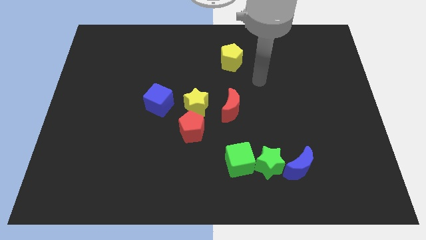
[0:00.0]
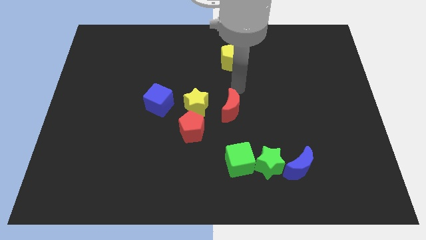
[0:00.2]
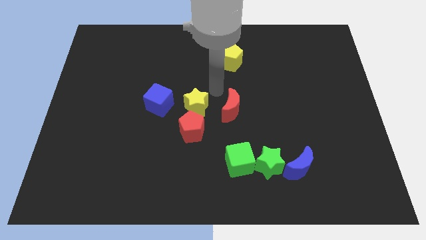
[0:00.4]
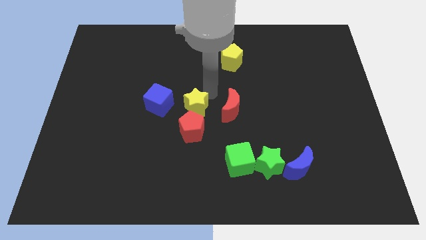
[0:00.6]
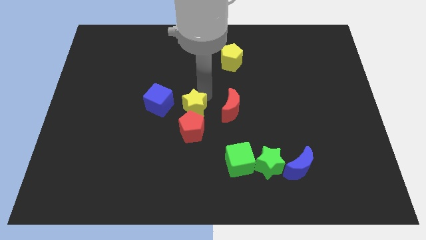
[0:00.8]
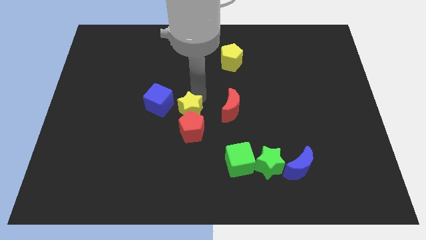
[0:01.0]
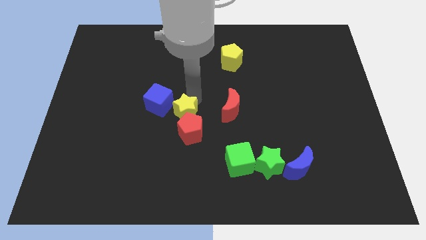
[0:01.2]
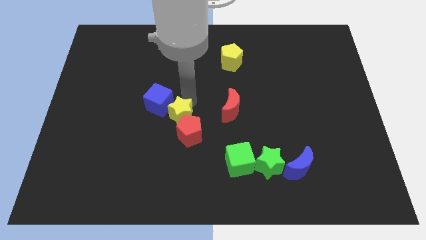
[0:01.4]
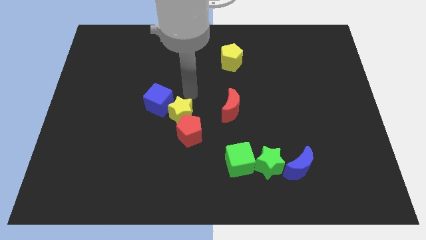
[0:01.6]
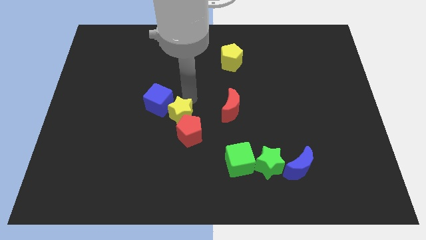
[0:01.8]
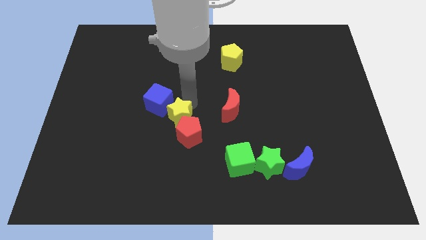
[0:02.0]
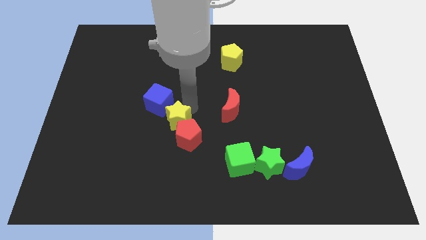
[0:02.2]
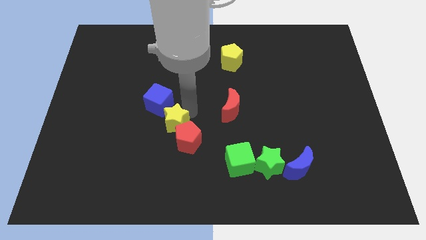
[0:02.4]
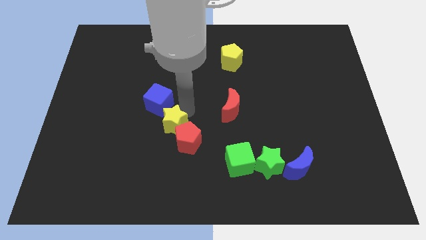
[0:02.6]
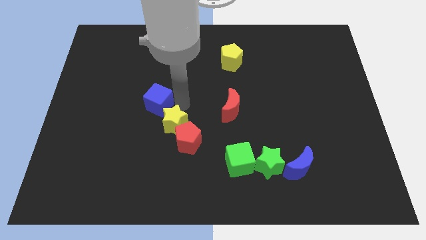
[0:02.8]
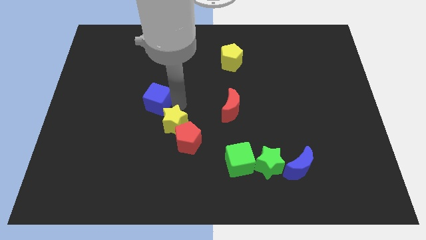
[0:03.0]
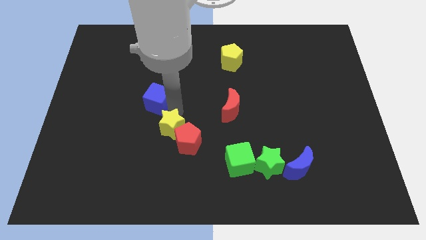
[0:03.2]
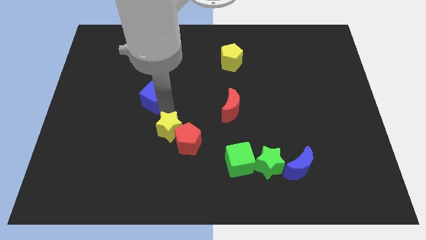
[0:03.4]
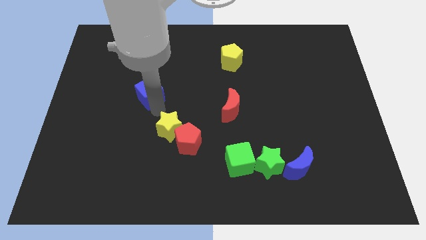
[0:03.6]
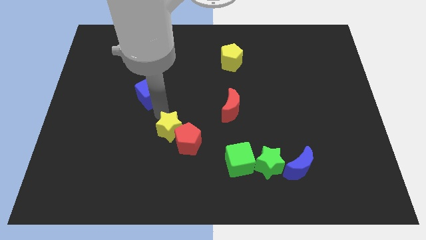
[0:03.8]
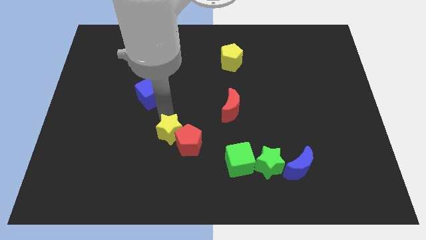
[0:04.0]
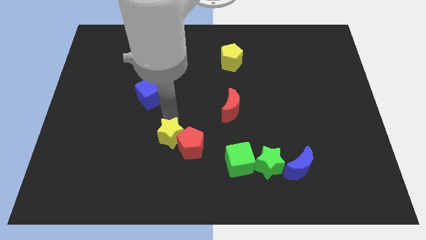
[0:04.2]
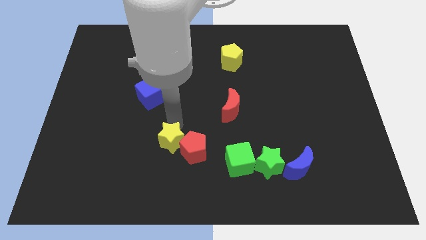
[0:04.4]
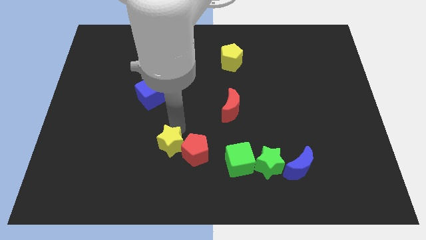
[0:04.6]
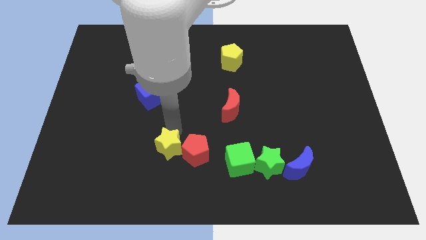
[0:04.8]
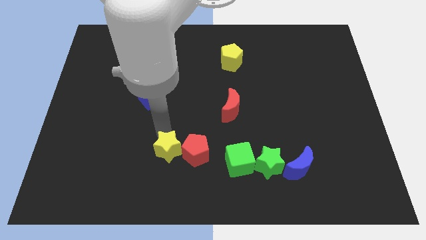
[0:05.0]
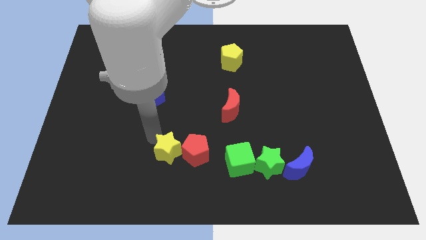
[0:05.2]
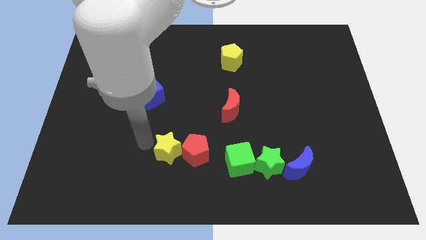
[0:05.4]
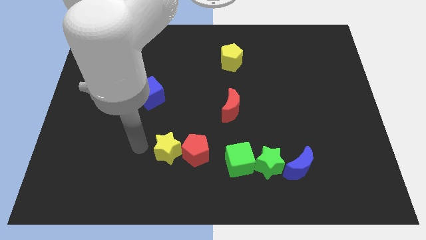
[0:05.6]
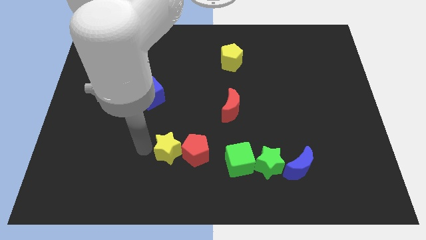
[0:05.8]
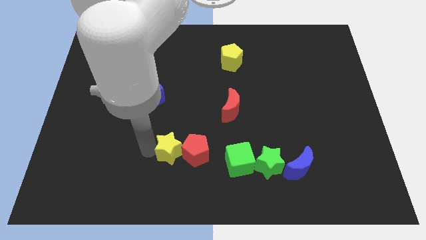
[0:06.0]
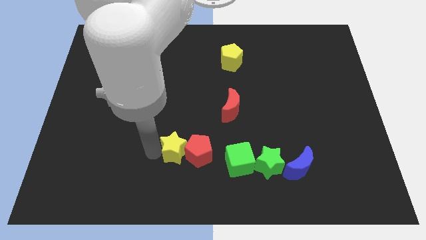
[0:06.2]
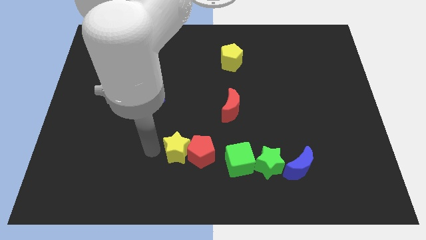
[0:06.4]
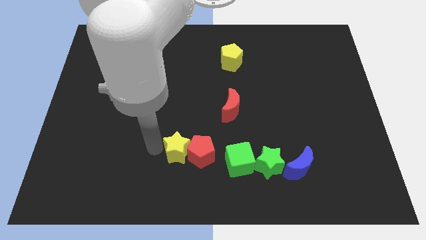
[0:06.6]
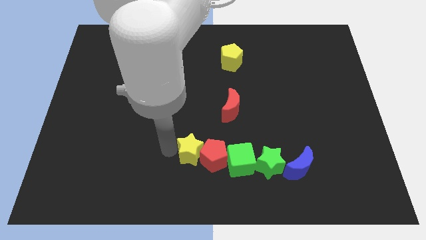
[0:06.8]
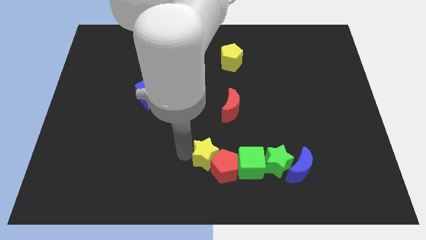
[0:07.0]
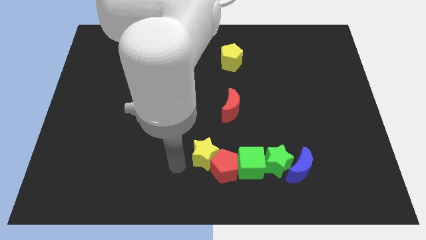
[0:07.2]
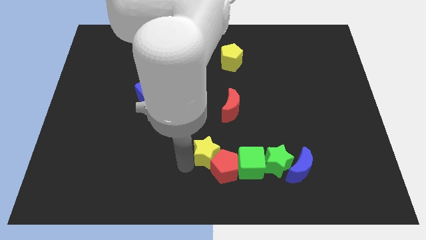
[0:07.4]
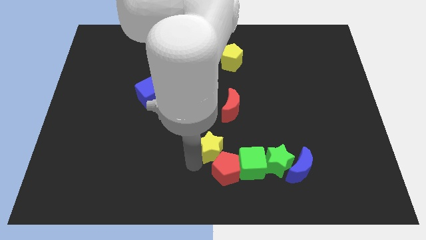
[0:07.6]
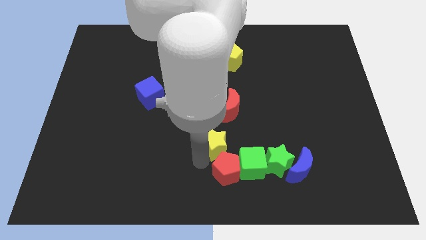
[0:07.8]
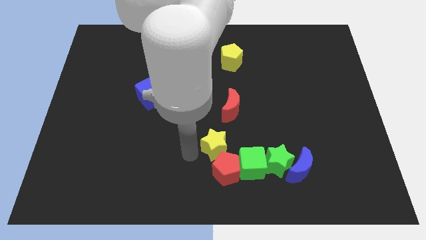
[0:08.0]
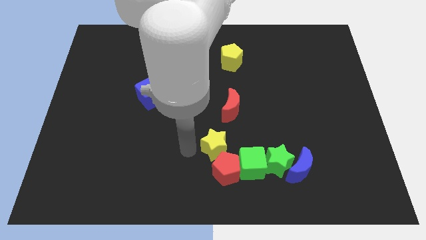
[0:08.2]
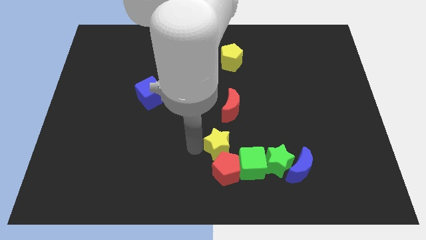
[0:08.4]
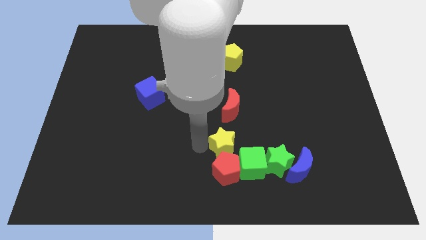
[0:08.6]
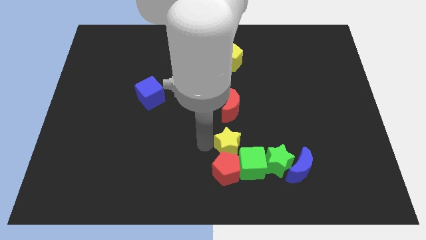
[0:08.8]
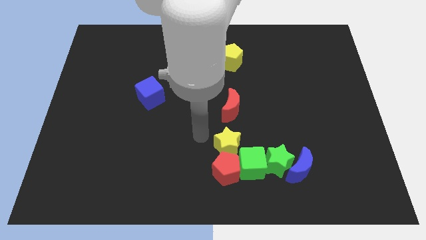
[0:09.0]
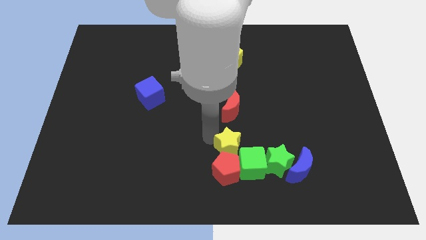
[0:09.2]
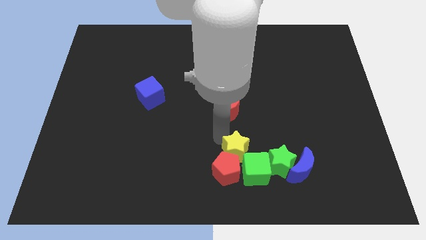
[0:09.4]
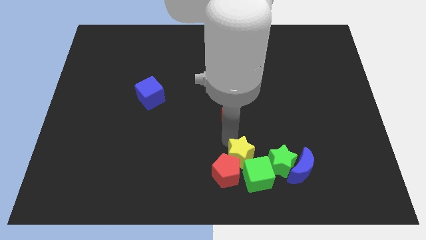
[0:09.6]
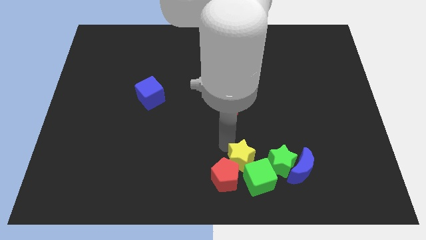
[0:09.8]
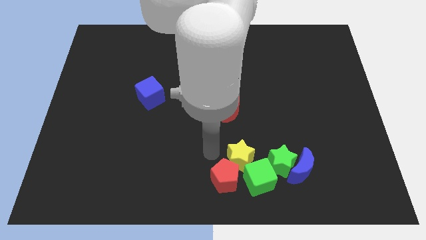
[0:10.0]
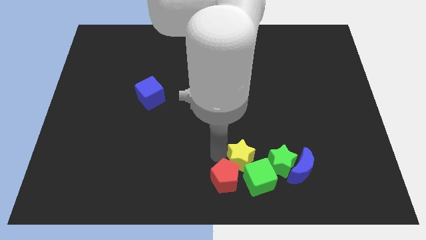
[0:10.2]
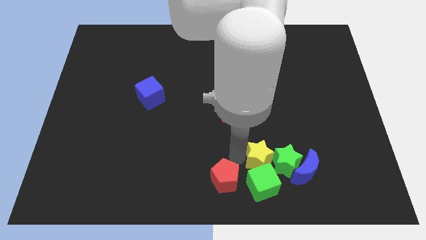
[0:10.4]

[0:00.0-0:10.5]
move the yellow star close to the green star

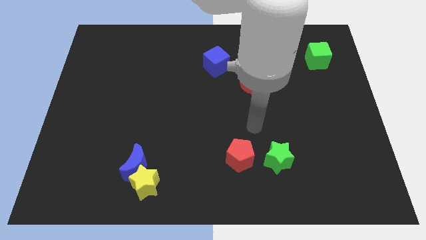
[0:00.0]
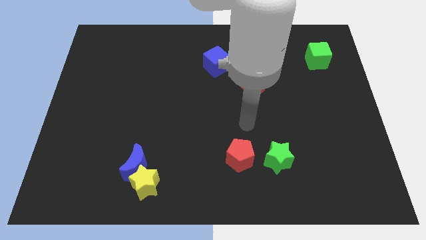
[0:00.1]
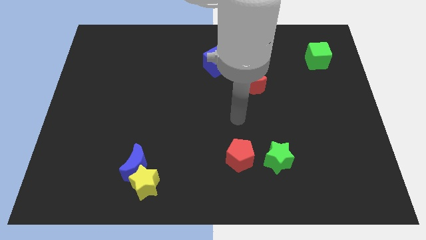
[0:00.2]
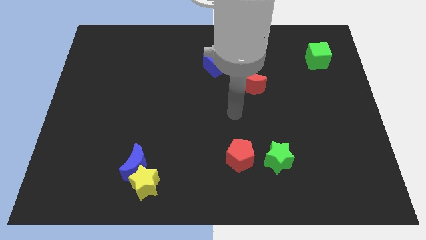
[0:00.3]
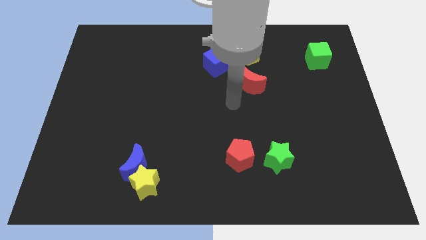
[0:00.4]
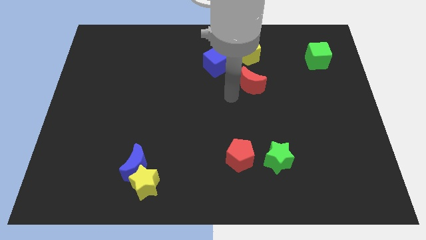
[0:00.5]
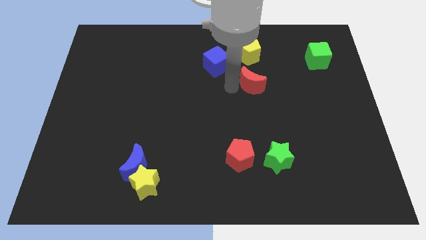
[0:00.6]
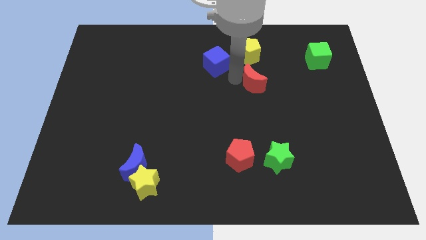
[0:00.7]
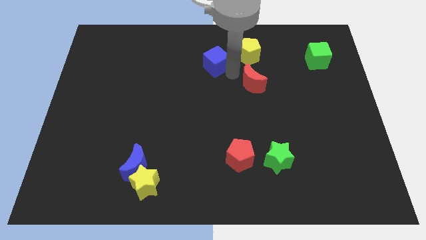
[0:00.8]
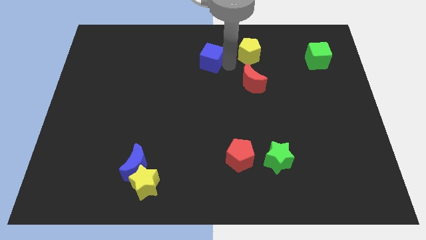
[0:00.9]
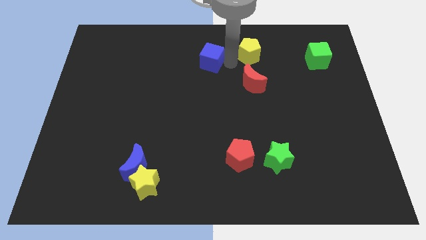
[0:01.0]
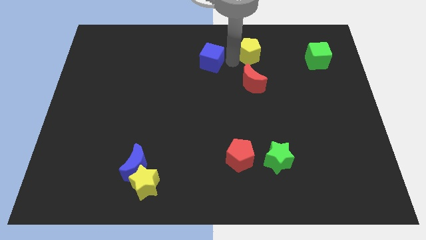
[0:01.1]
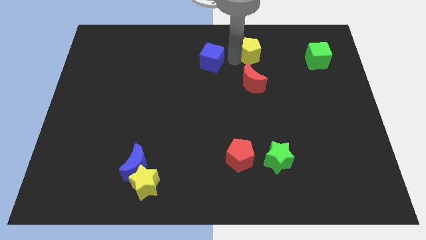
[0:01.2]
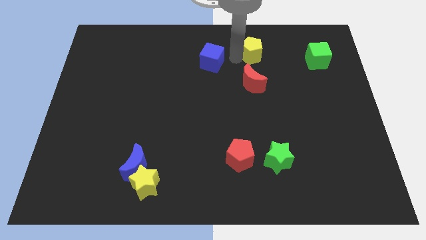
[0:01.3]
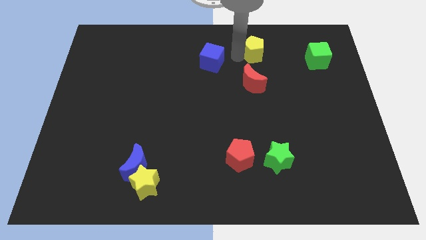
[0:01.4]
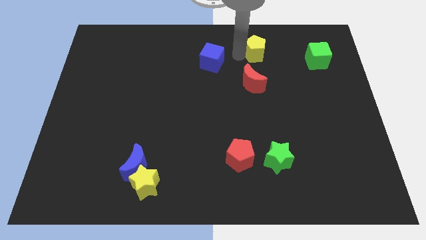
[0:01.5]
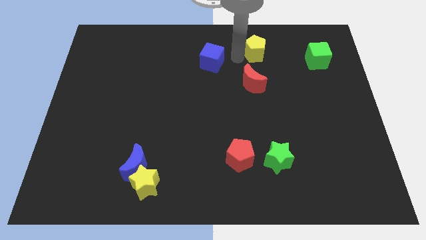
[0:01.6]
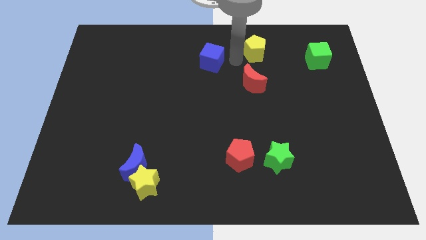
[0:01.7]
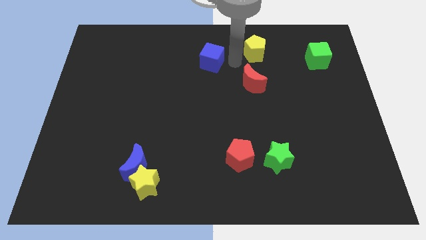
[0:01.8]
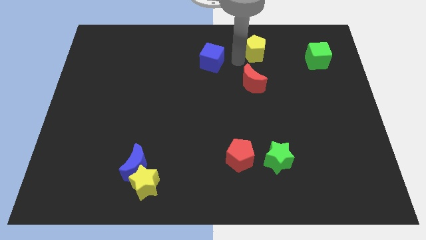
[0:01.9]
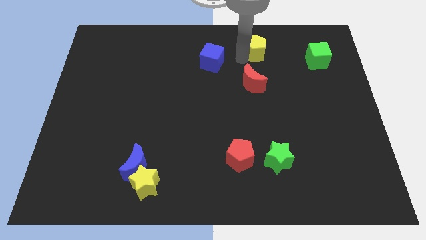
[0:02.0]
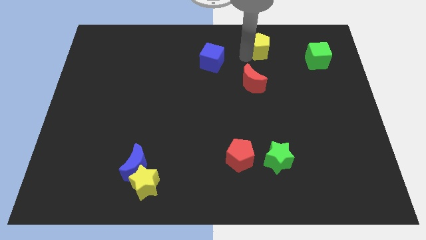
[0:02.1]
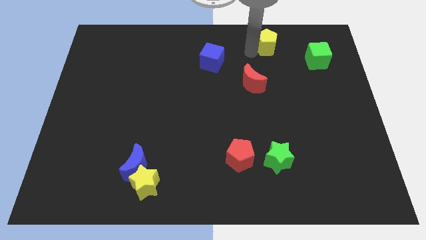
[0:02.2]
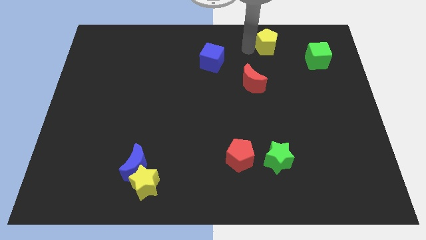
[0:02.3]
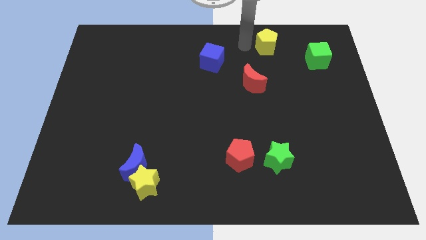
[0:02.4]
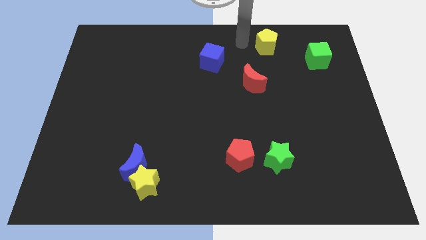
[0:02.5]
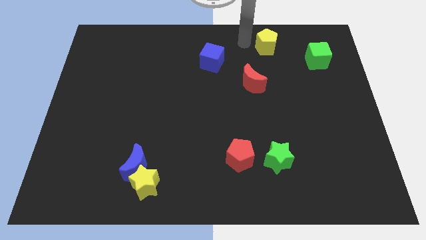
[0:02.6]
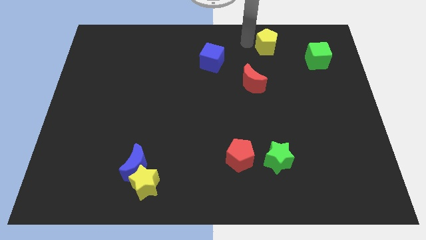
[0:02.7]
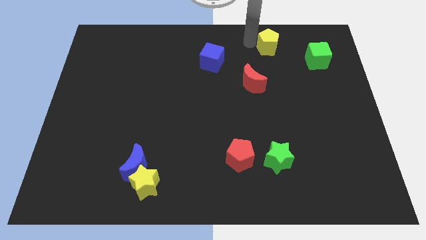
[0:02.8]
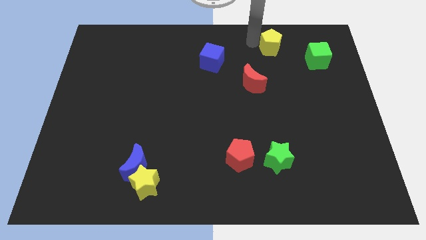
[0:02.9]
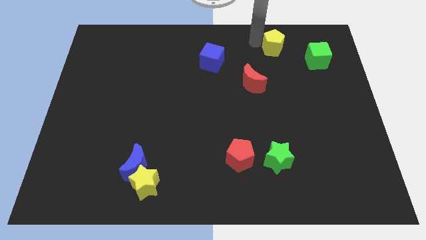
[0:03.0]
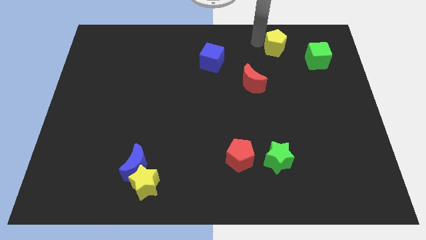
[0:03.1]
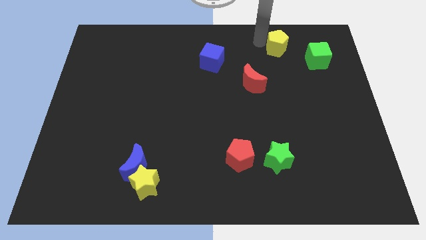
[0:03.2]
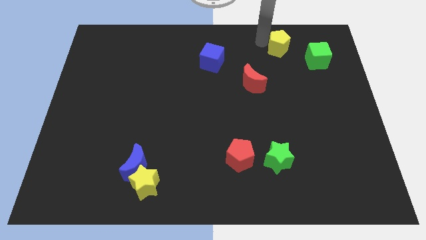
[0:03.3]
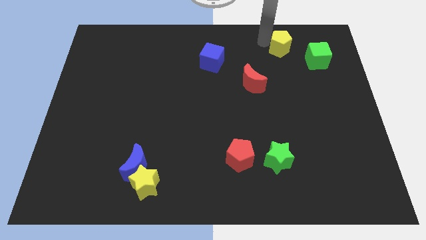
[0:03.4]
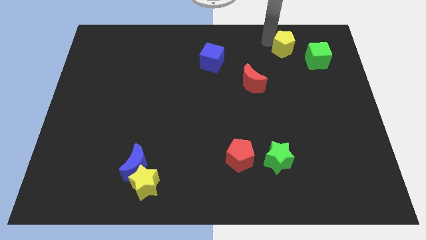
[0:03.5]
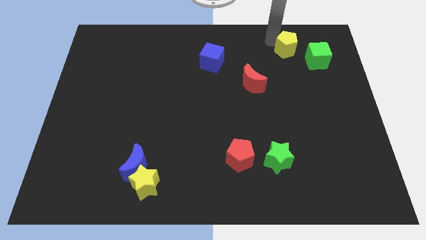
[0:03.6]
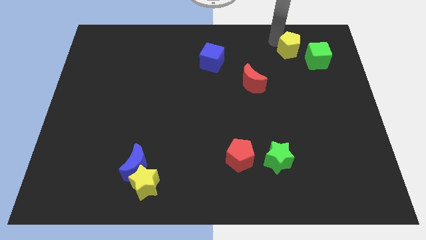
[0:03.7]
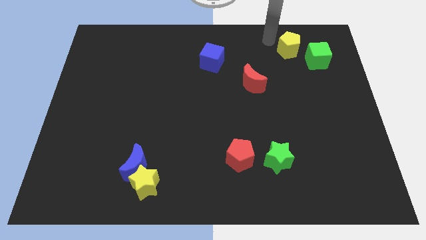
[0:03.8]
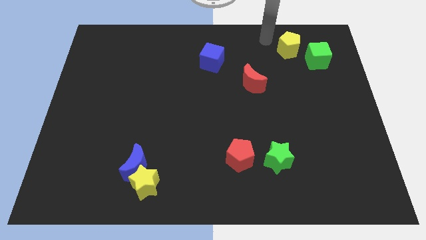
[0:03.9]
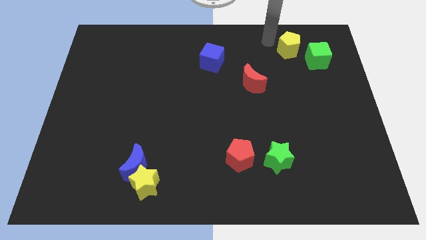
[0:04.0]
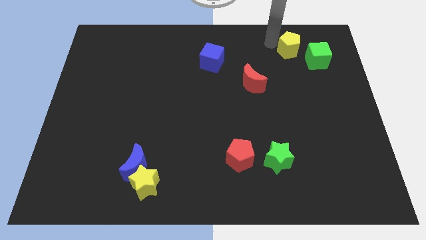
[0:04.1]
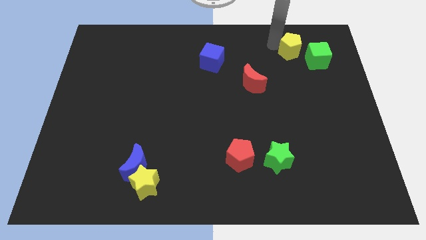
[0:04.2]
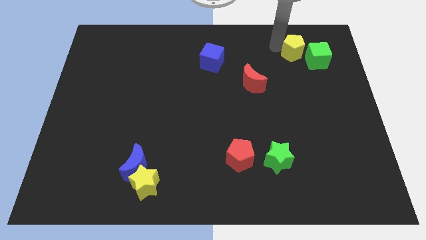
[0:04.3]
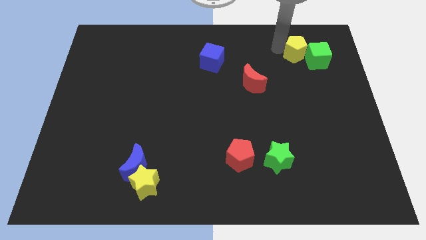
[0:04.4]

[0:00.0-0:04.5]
push the yellow pentagon next to the green cube
